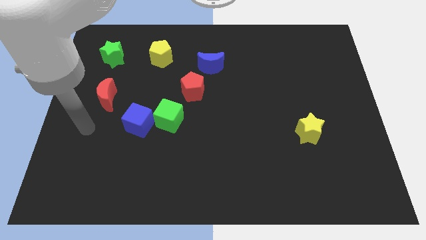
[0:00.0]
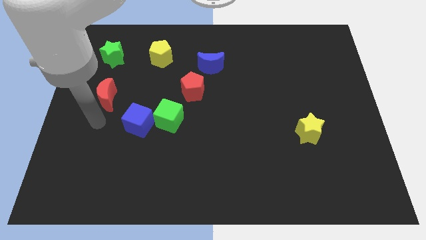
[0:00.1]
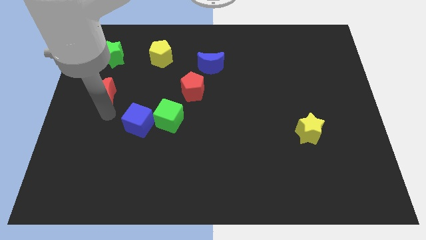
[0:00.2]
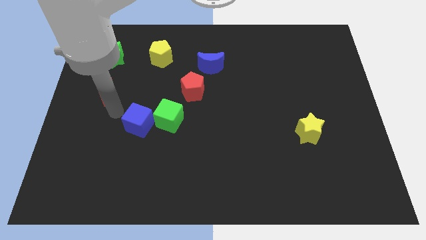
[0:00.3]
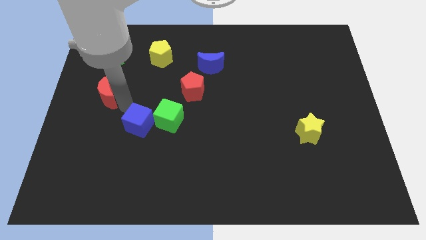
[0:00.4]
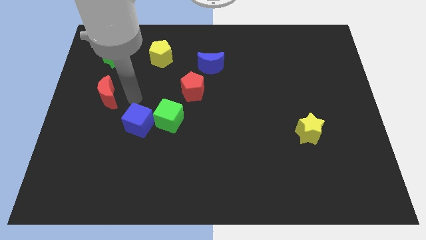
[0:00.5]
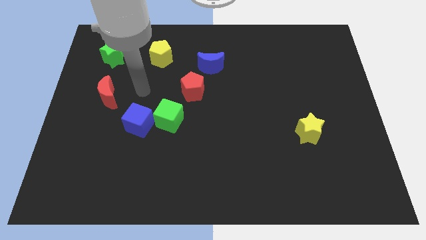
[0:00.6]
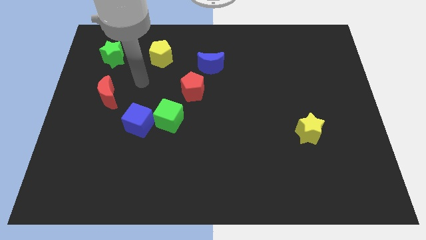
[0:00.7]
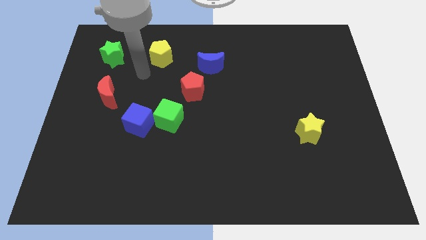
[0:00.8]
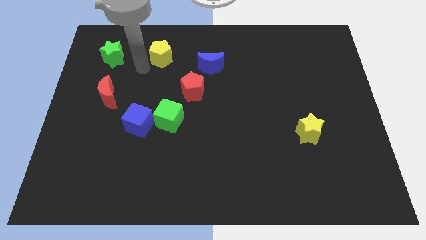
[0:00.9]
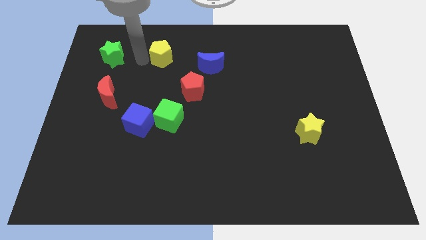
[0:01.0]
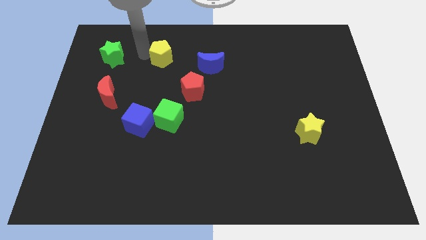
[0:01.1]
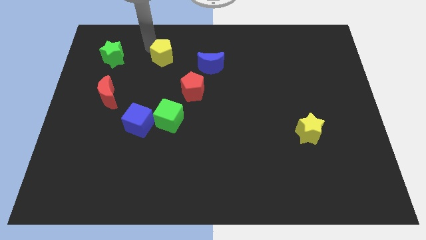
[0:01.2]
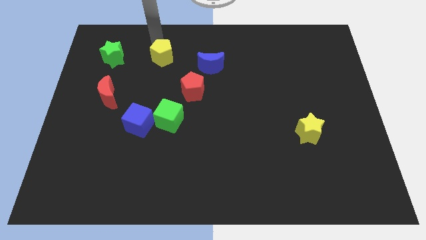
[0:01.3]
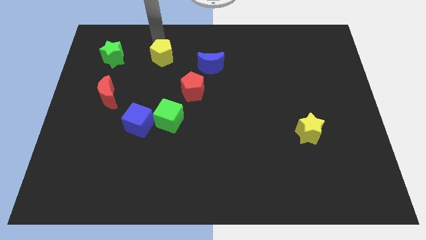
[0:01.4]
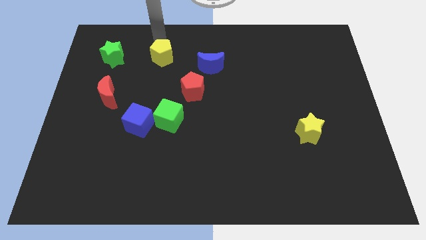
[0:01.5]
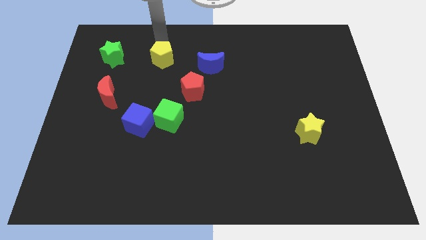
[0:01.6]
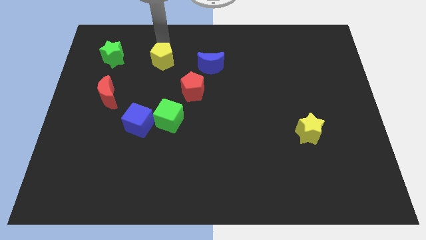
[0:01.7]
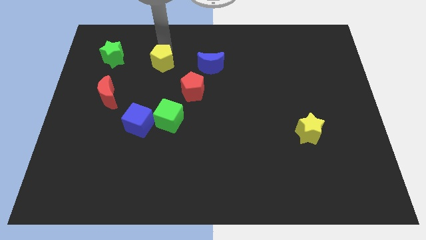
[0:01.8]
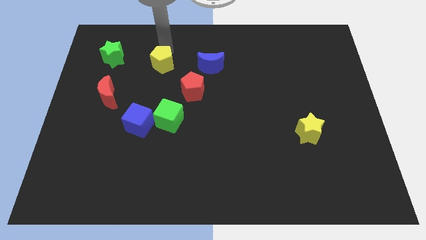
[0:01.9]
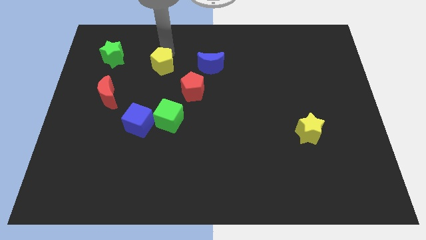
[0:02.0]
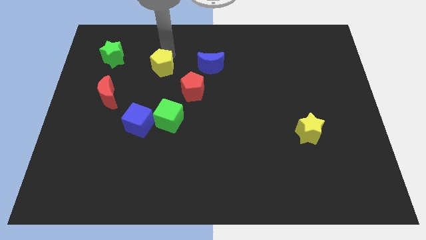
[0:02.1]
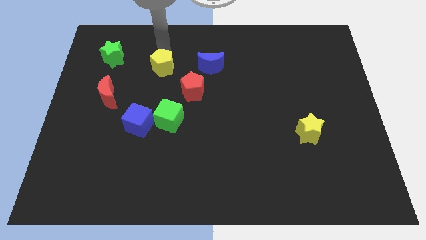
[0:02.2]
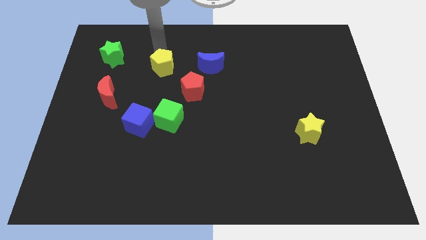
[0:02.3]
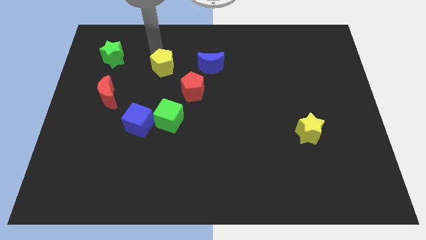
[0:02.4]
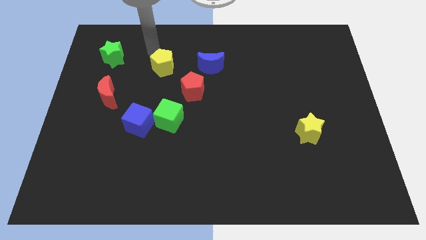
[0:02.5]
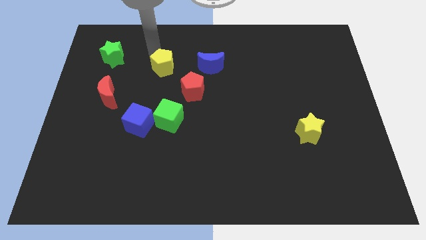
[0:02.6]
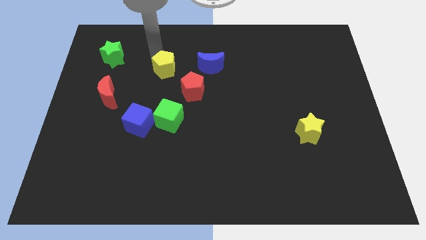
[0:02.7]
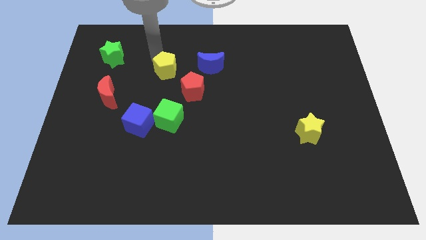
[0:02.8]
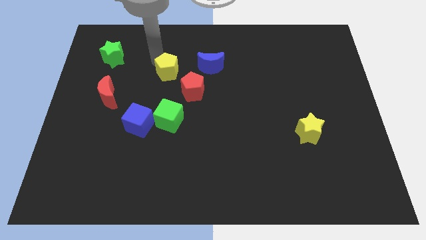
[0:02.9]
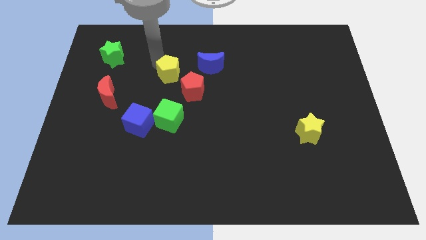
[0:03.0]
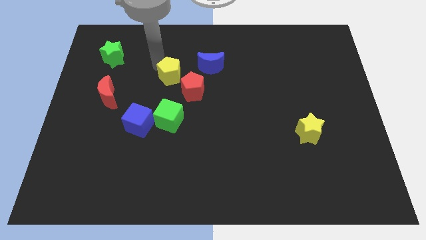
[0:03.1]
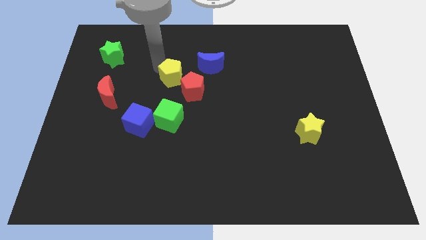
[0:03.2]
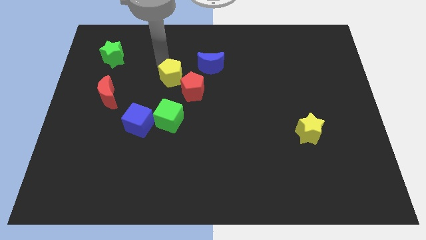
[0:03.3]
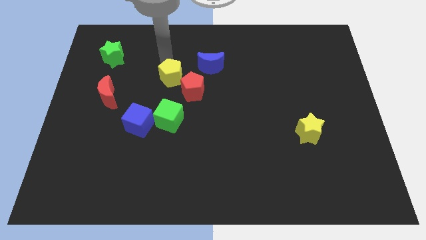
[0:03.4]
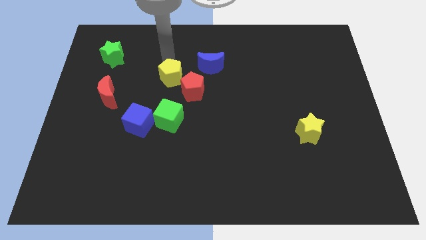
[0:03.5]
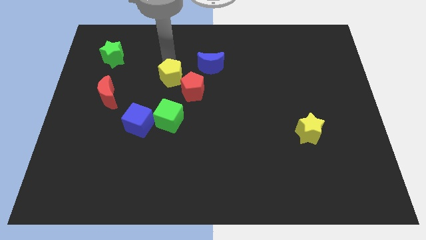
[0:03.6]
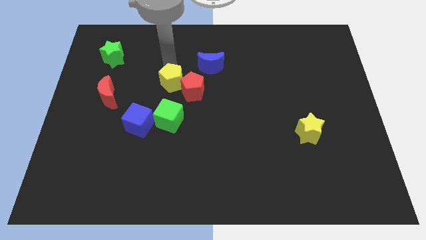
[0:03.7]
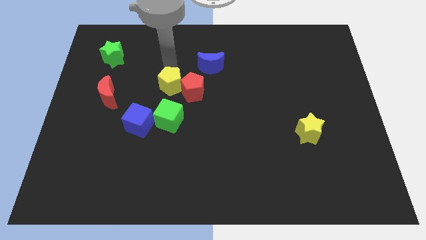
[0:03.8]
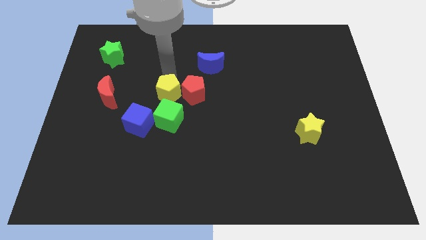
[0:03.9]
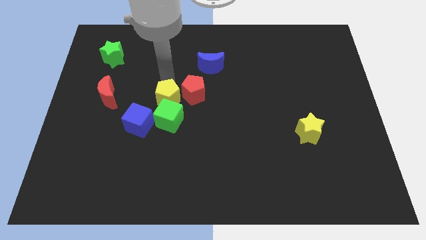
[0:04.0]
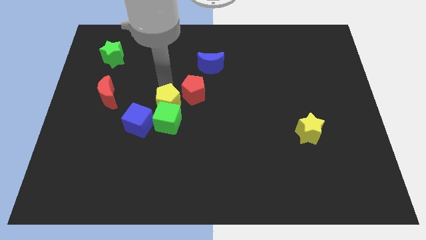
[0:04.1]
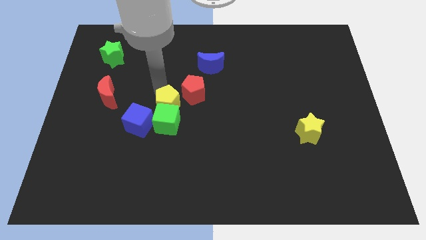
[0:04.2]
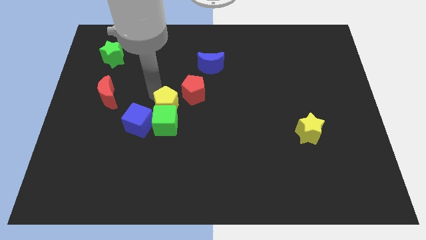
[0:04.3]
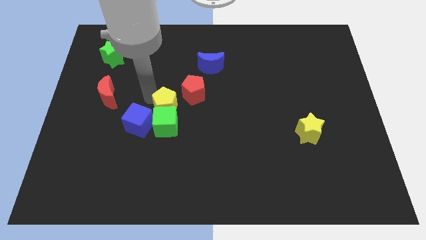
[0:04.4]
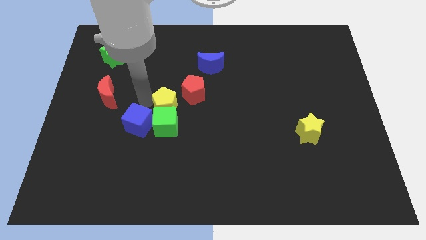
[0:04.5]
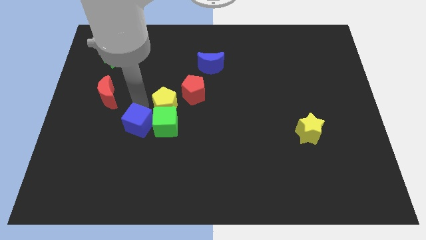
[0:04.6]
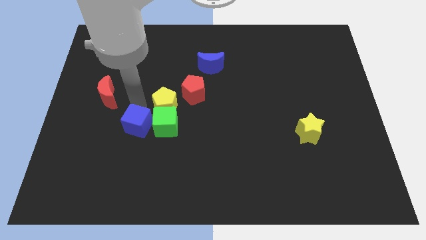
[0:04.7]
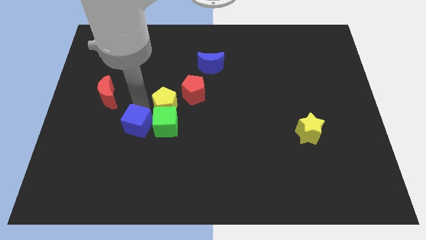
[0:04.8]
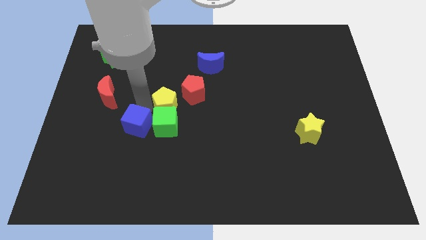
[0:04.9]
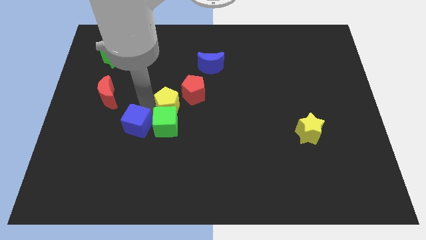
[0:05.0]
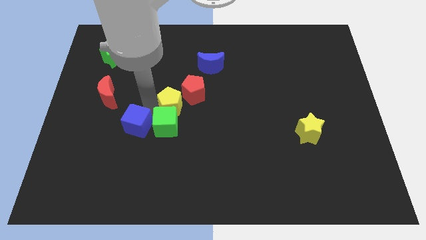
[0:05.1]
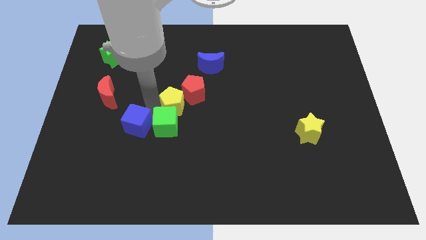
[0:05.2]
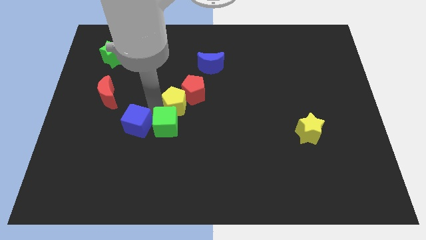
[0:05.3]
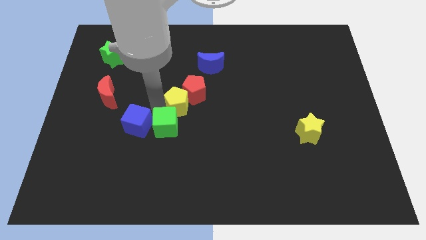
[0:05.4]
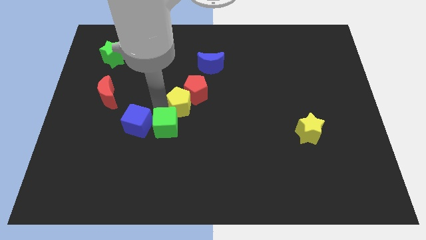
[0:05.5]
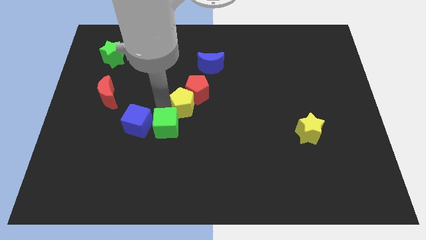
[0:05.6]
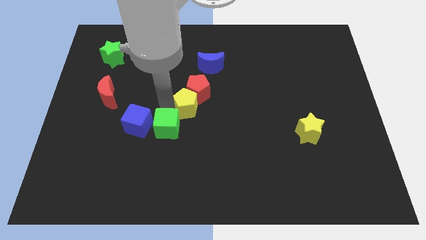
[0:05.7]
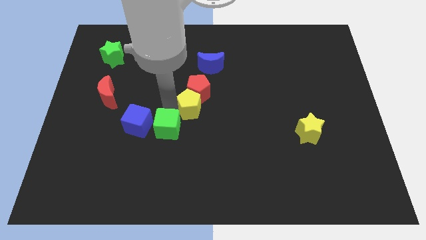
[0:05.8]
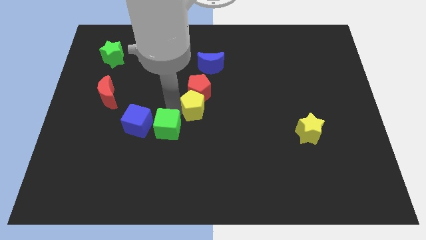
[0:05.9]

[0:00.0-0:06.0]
push the yellow pentagon to the bottom side of the blue moon

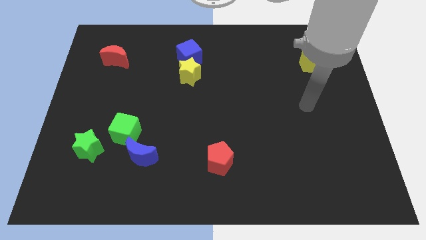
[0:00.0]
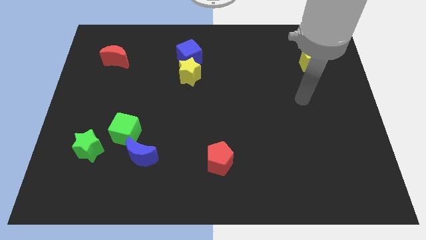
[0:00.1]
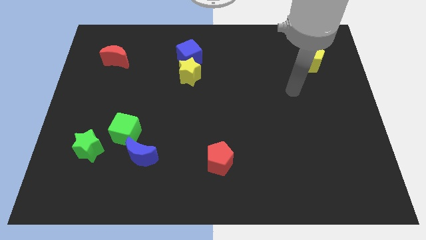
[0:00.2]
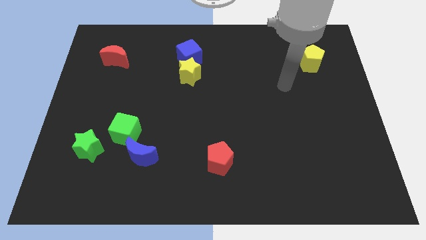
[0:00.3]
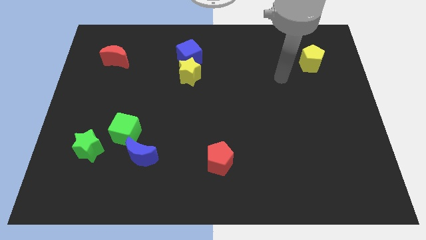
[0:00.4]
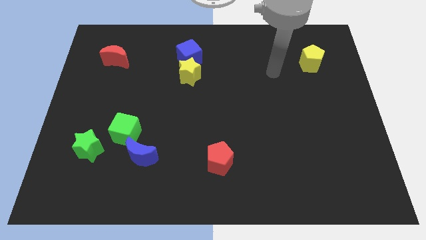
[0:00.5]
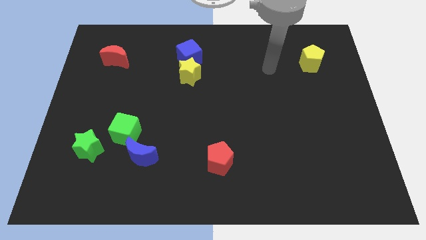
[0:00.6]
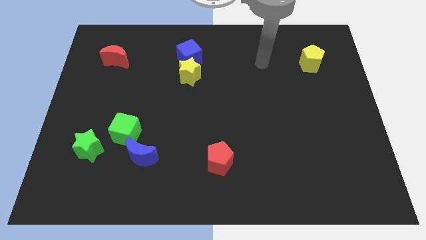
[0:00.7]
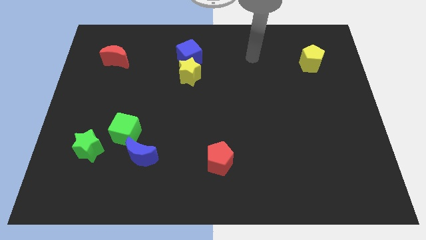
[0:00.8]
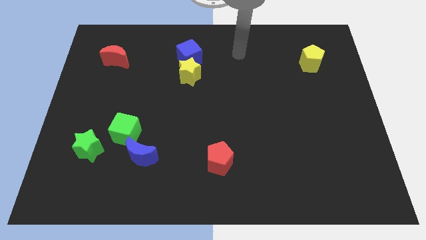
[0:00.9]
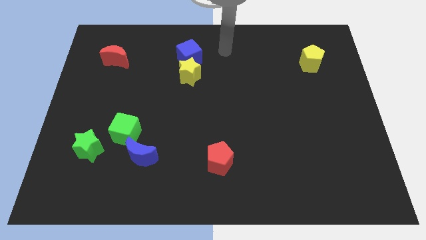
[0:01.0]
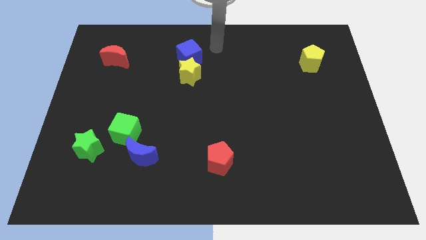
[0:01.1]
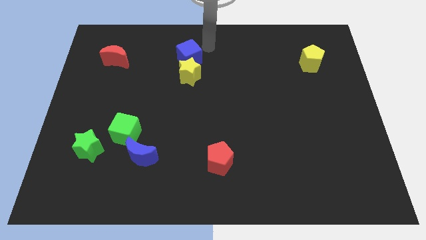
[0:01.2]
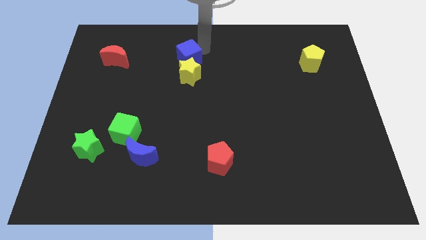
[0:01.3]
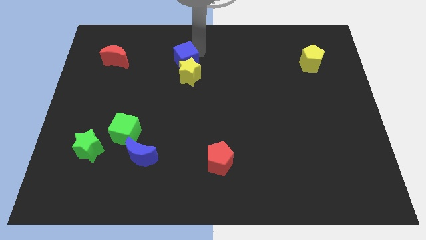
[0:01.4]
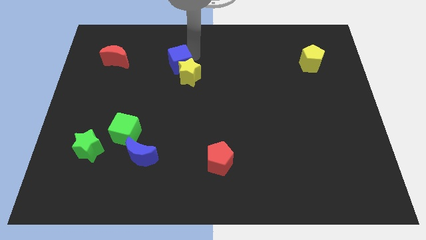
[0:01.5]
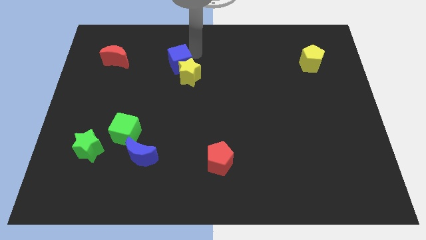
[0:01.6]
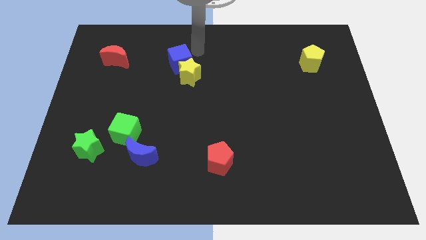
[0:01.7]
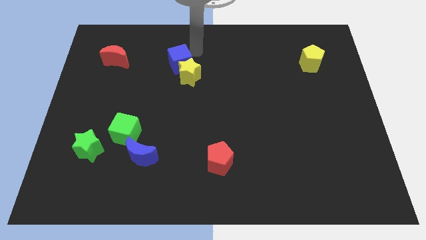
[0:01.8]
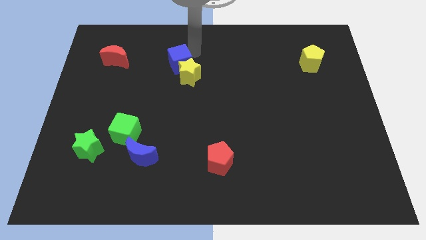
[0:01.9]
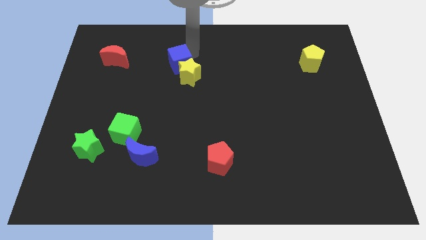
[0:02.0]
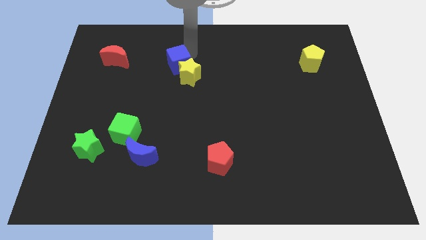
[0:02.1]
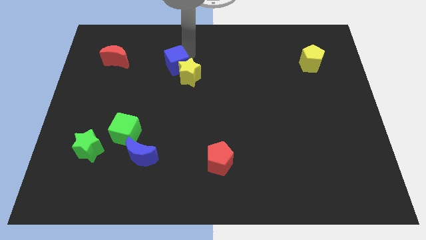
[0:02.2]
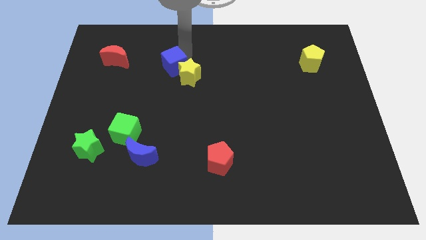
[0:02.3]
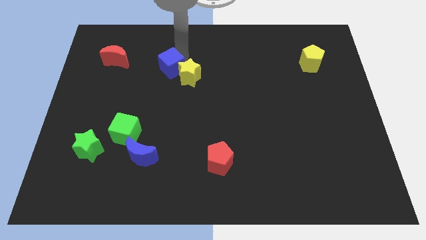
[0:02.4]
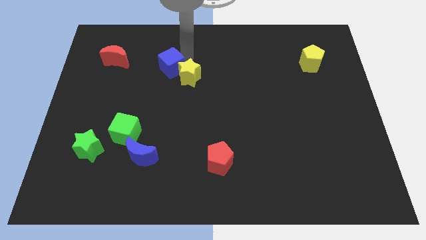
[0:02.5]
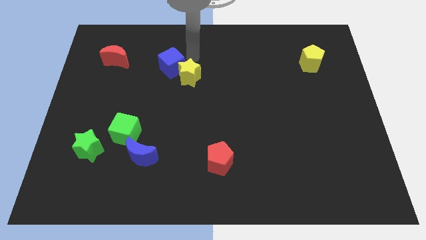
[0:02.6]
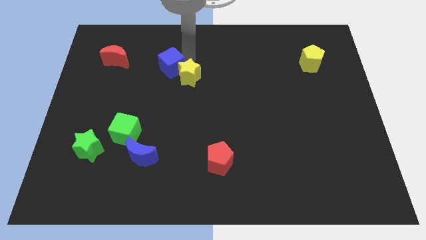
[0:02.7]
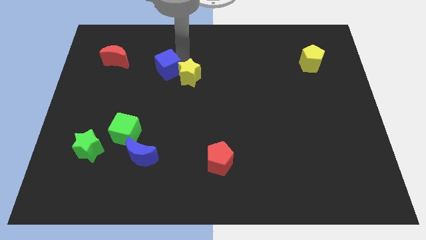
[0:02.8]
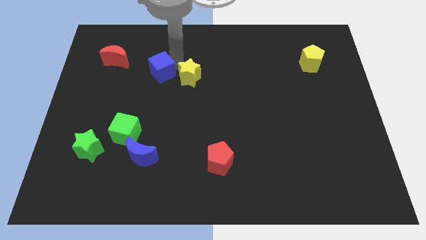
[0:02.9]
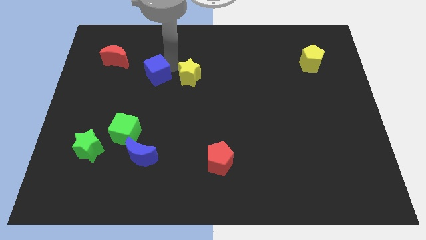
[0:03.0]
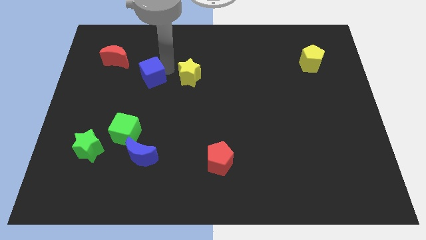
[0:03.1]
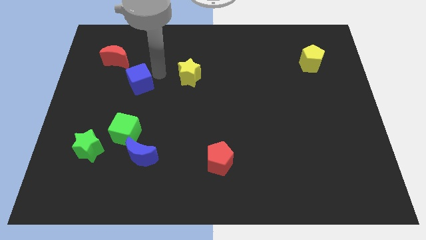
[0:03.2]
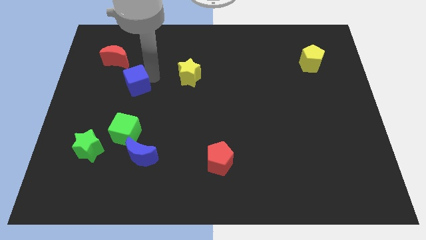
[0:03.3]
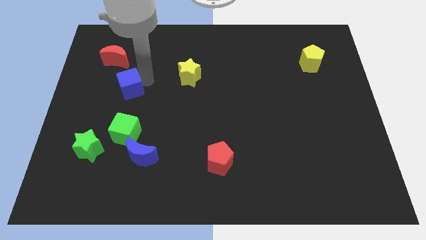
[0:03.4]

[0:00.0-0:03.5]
put the blue cube to the bottom of the red moon
